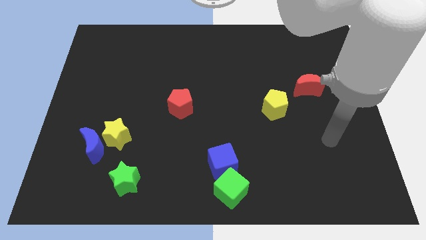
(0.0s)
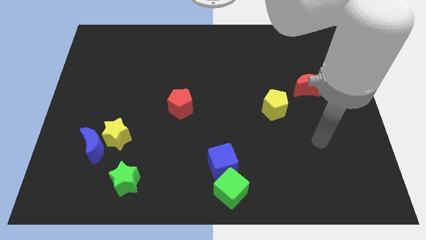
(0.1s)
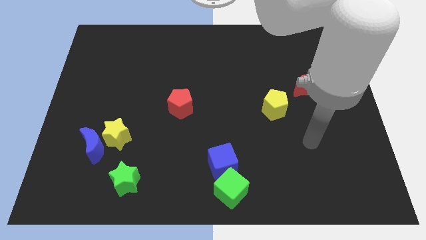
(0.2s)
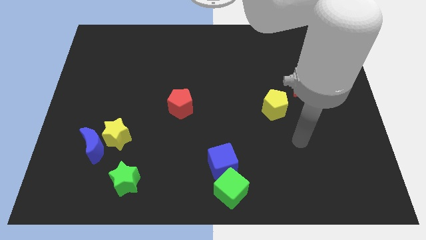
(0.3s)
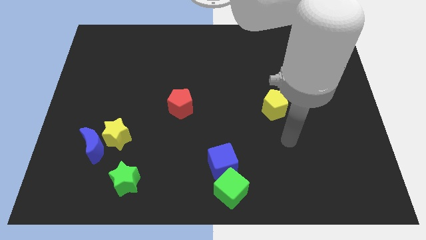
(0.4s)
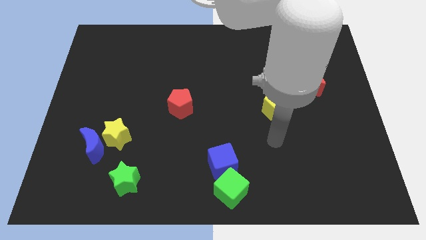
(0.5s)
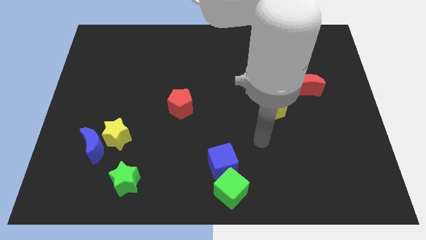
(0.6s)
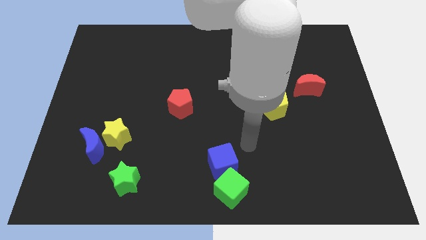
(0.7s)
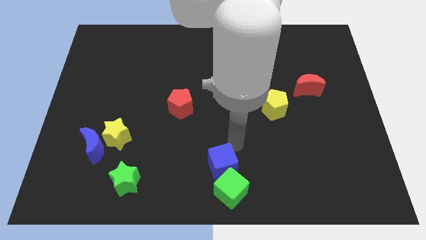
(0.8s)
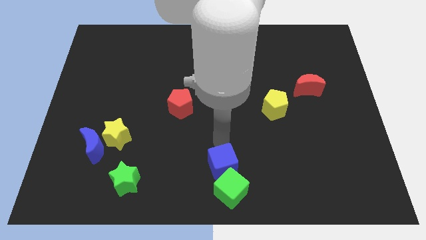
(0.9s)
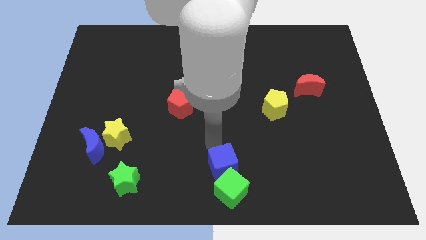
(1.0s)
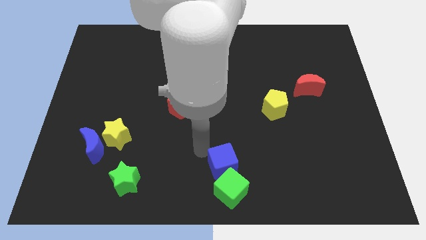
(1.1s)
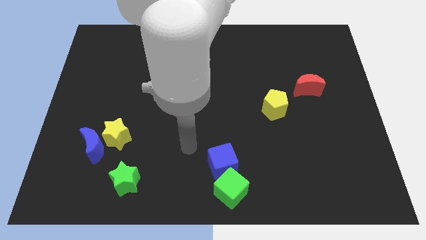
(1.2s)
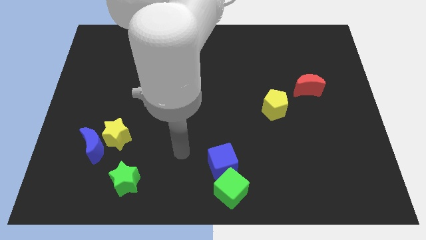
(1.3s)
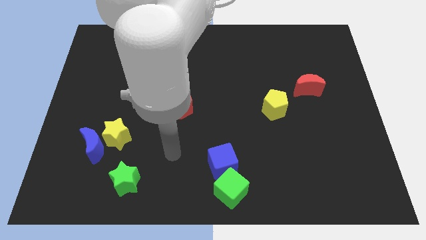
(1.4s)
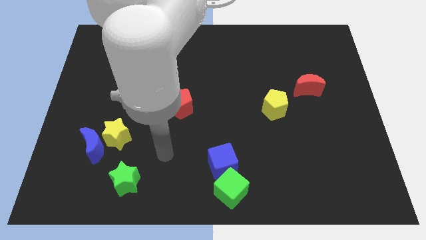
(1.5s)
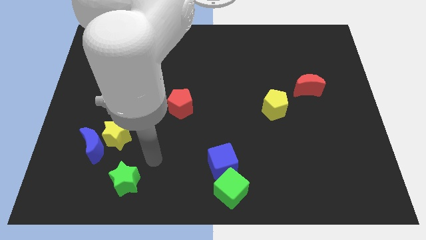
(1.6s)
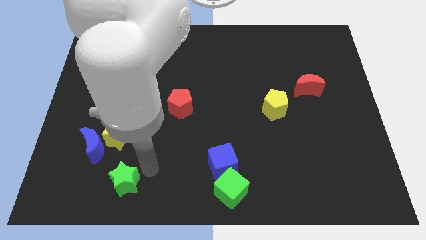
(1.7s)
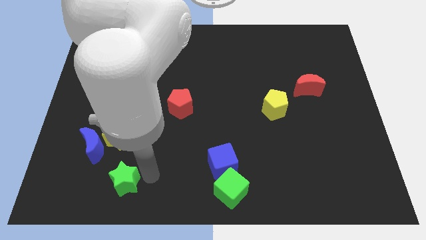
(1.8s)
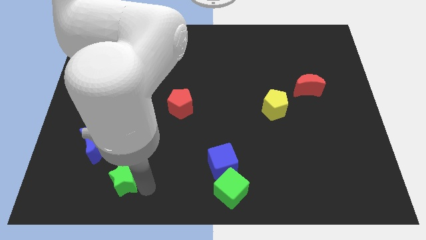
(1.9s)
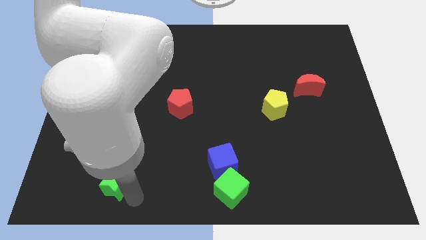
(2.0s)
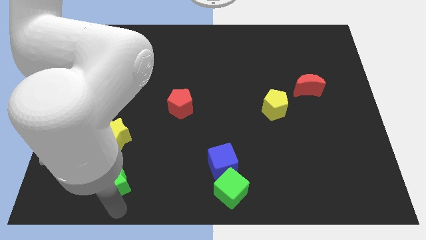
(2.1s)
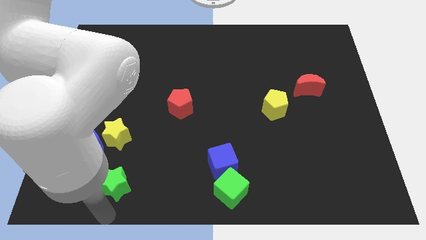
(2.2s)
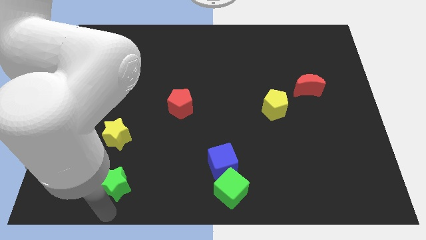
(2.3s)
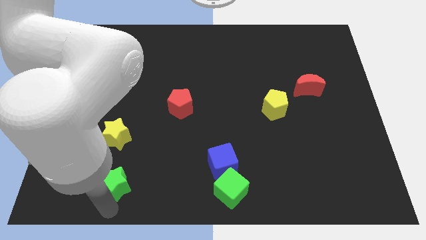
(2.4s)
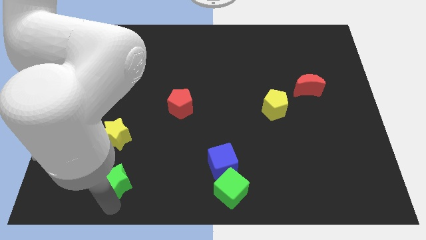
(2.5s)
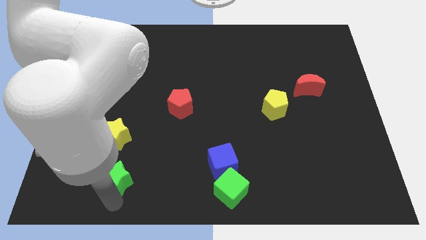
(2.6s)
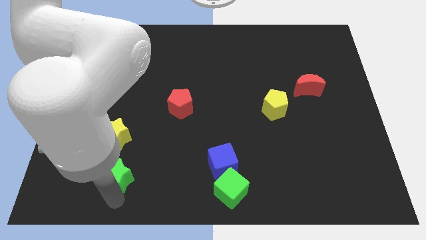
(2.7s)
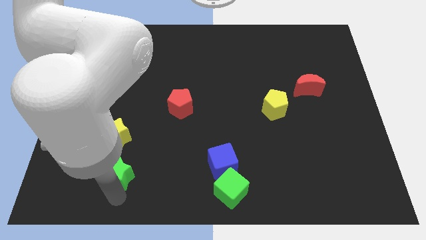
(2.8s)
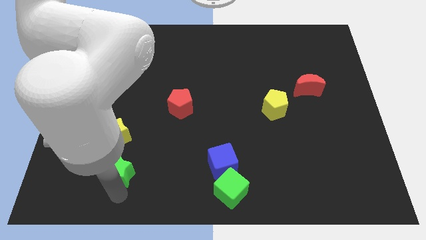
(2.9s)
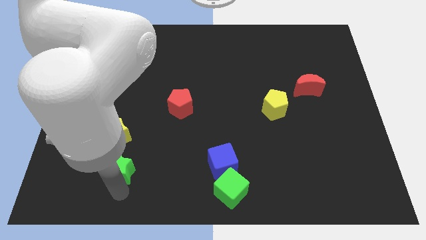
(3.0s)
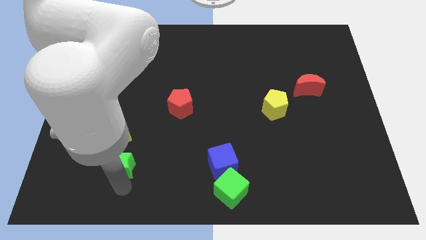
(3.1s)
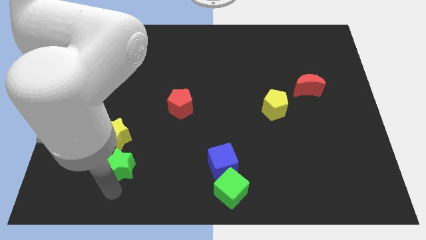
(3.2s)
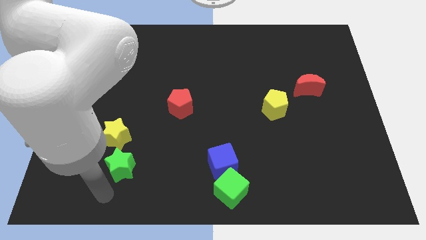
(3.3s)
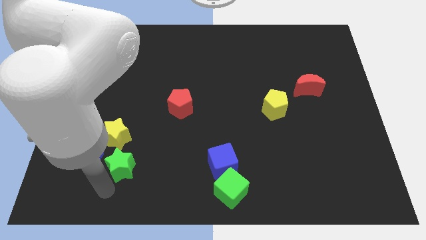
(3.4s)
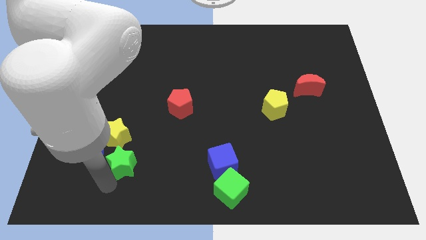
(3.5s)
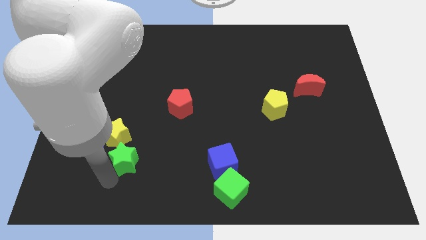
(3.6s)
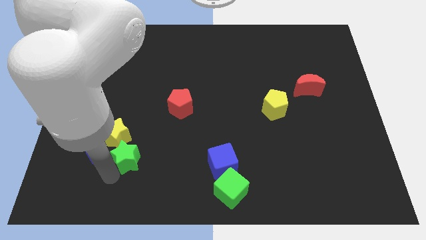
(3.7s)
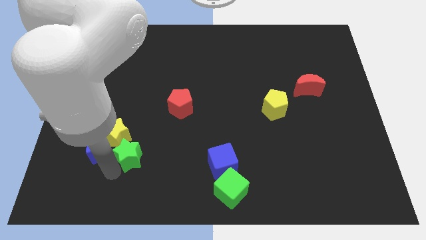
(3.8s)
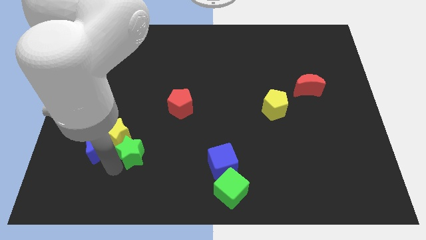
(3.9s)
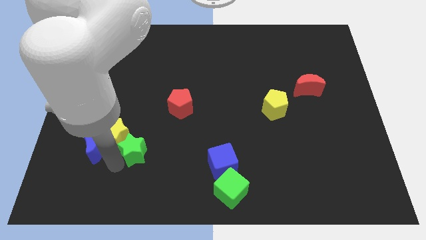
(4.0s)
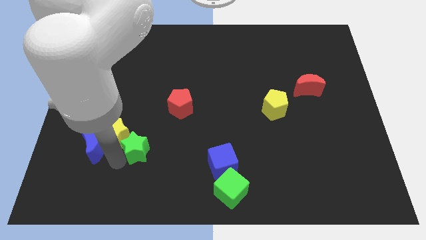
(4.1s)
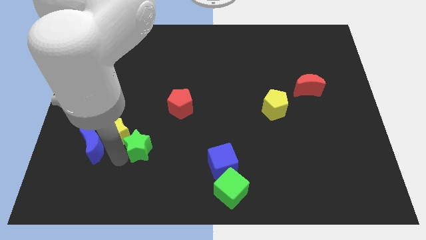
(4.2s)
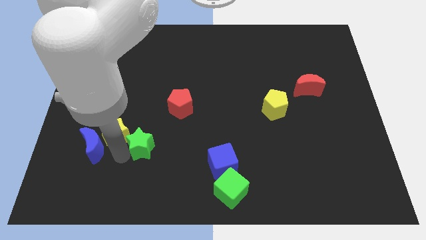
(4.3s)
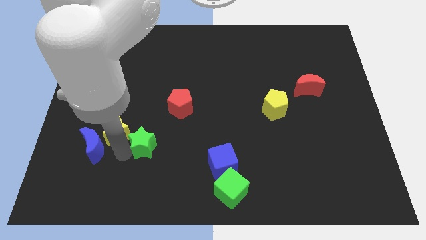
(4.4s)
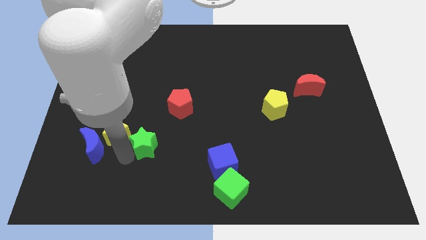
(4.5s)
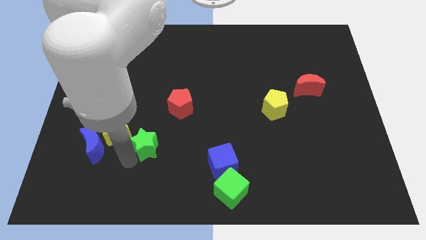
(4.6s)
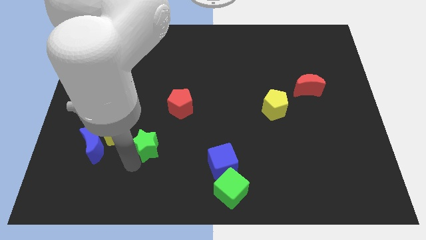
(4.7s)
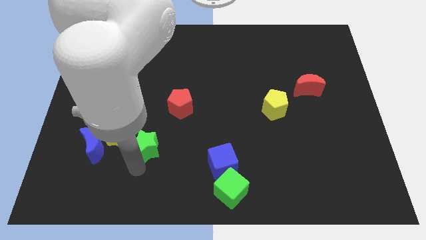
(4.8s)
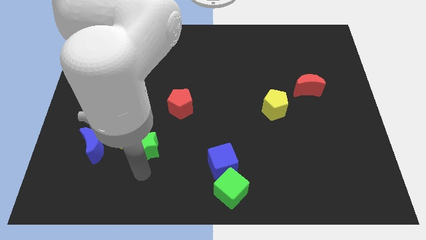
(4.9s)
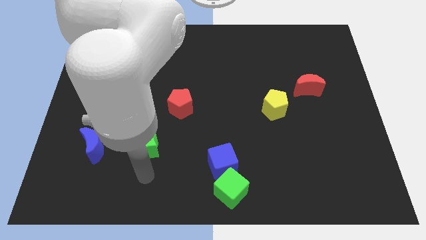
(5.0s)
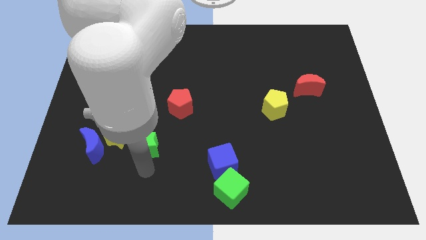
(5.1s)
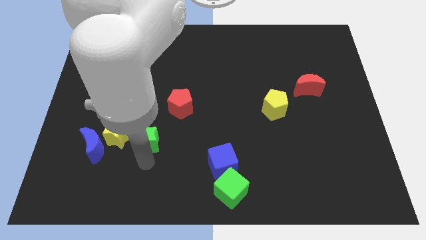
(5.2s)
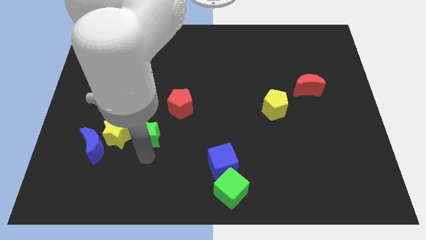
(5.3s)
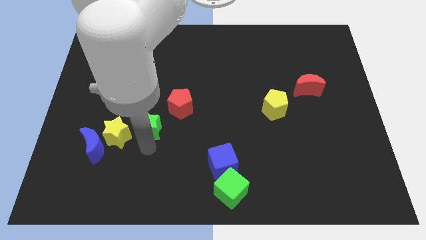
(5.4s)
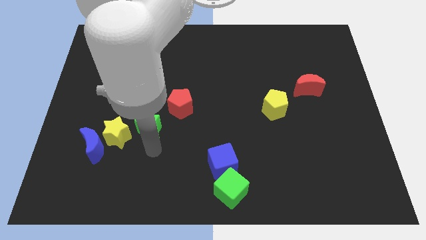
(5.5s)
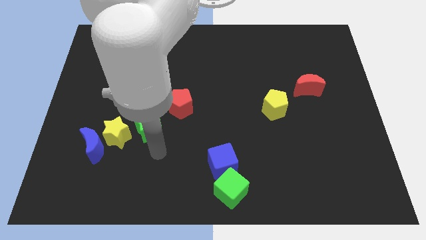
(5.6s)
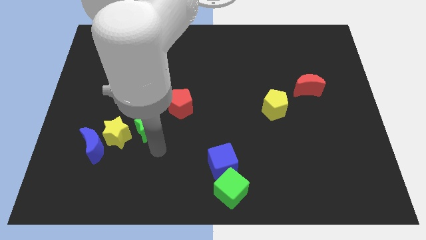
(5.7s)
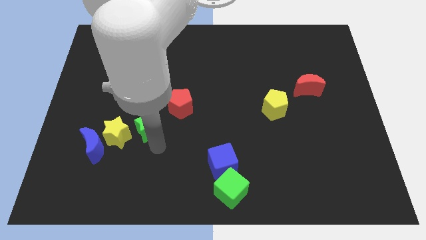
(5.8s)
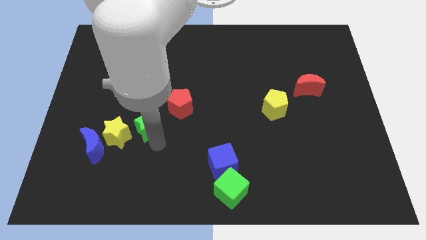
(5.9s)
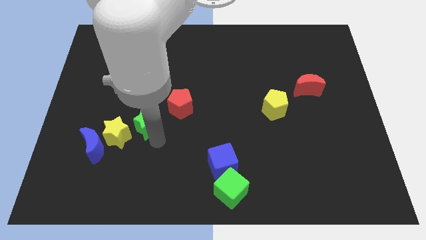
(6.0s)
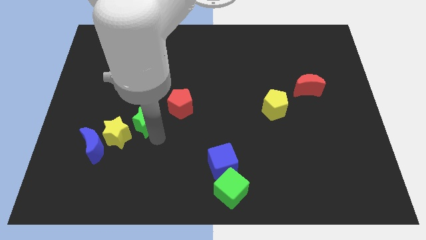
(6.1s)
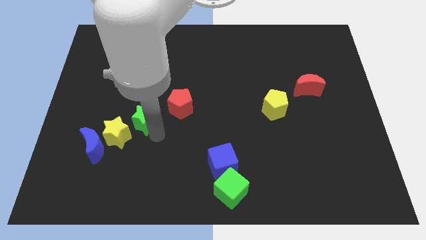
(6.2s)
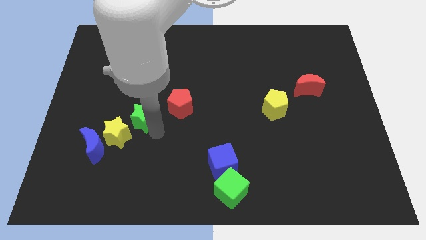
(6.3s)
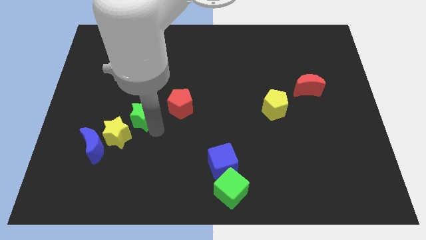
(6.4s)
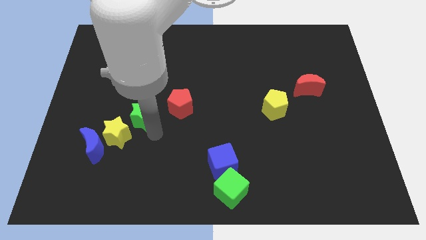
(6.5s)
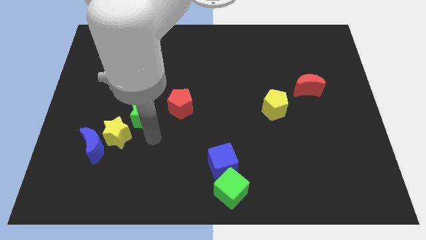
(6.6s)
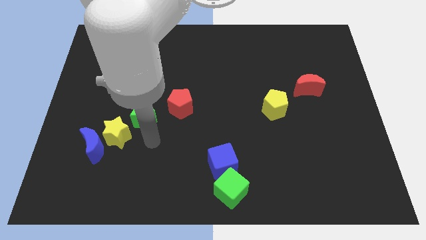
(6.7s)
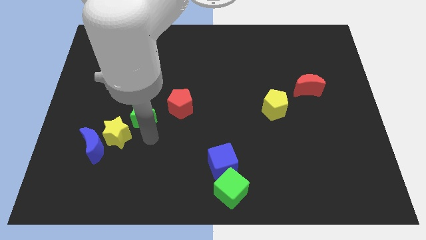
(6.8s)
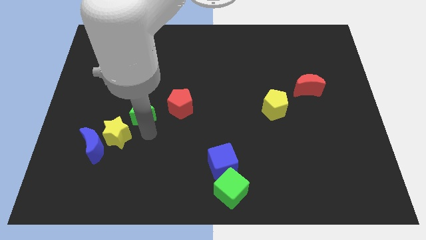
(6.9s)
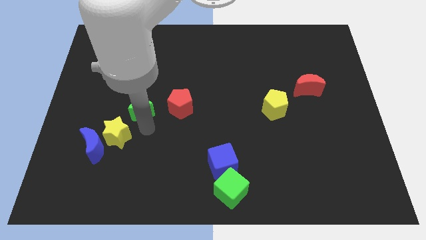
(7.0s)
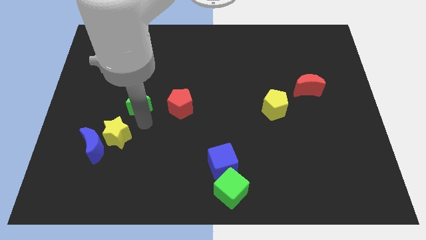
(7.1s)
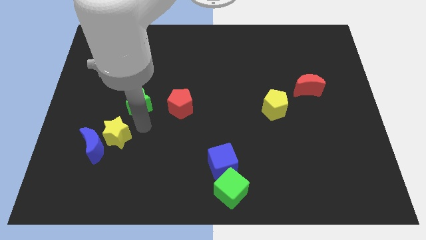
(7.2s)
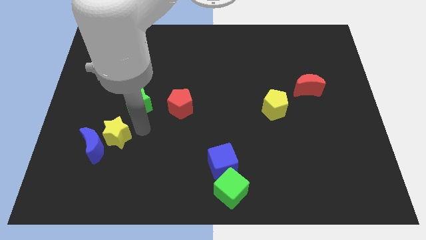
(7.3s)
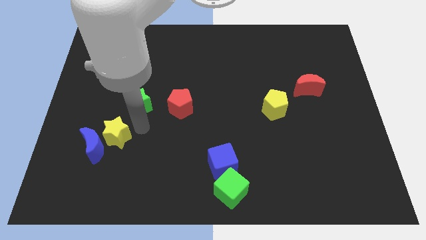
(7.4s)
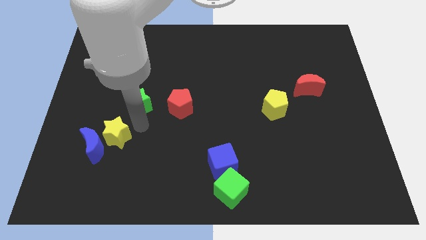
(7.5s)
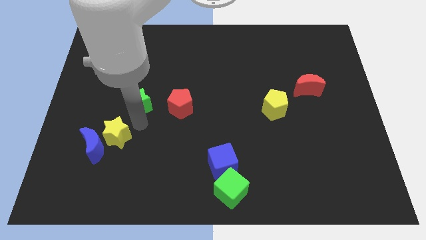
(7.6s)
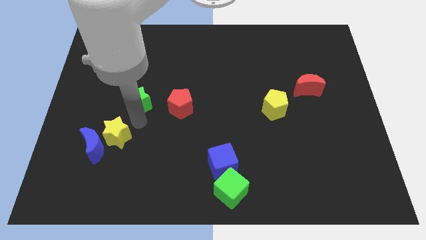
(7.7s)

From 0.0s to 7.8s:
push the green star upwards

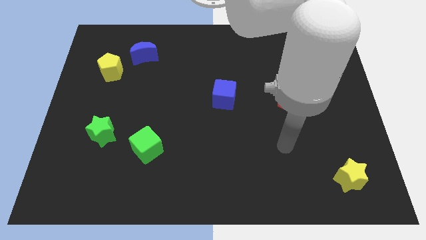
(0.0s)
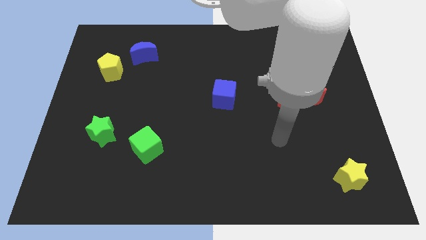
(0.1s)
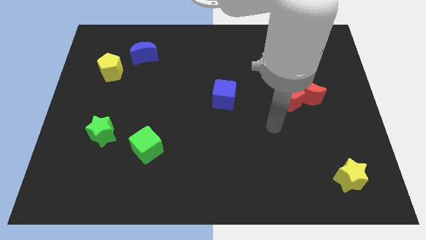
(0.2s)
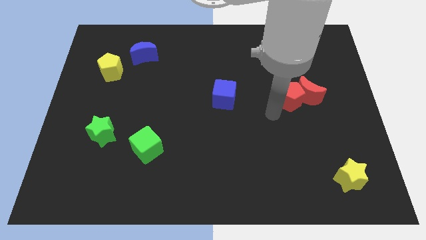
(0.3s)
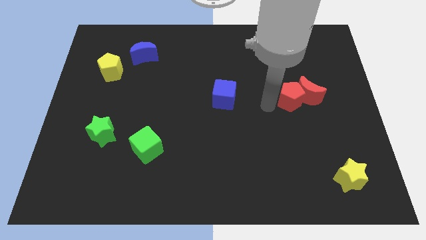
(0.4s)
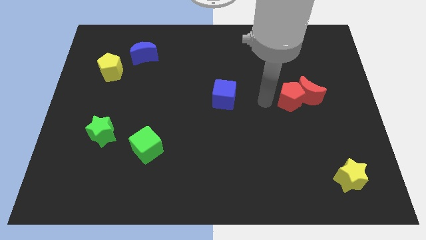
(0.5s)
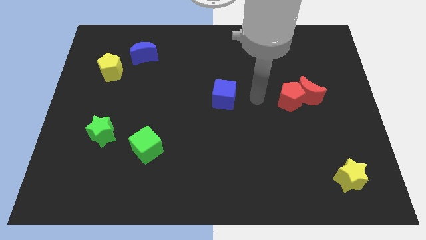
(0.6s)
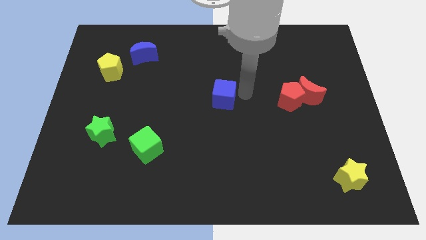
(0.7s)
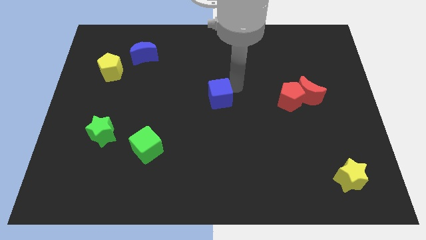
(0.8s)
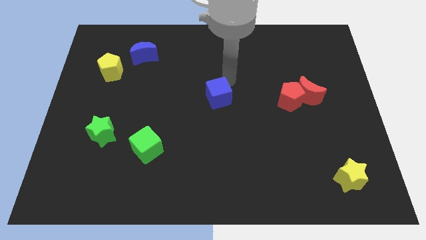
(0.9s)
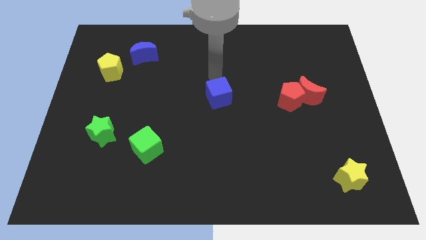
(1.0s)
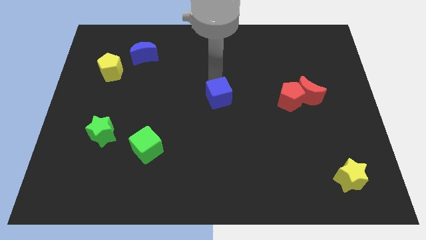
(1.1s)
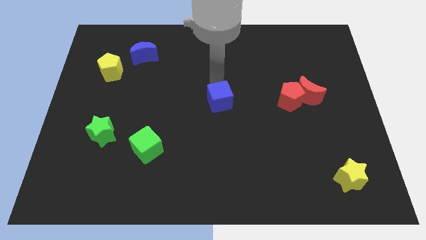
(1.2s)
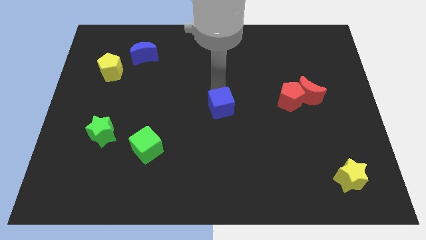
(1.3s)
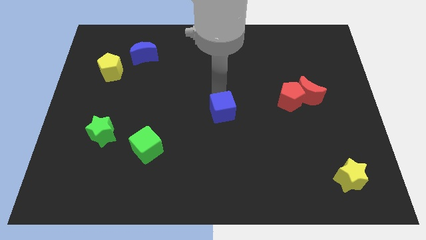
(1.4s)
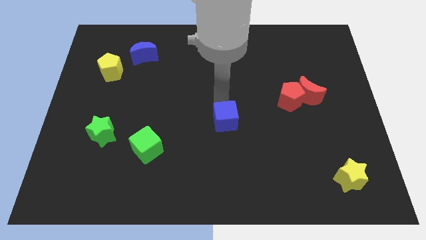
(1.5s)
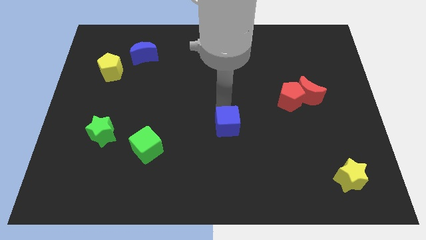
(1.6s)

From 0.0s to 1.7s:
slightly push the blue cube down
